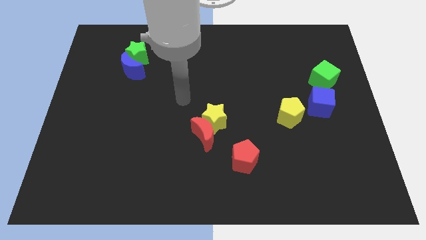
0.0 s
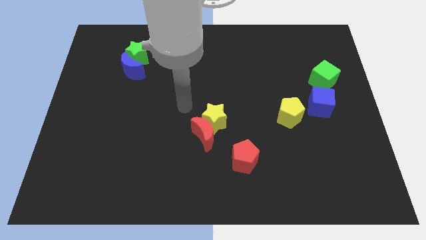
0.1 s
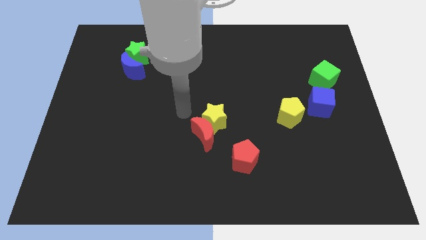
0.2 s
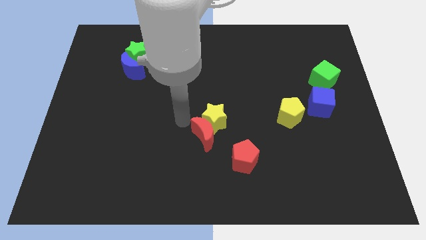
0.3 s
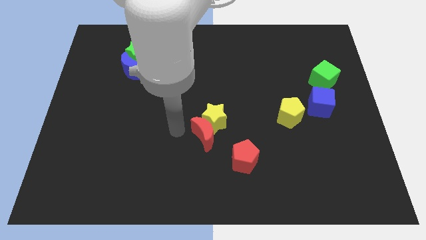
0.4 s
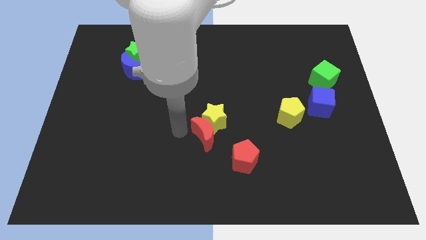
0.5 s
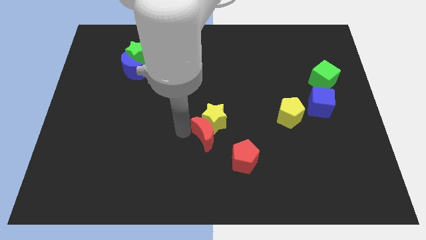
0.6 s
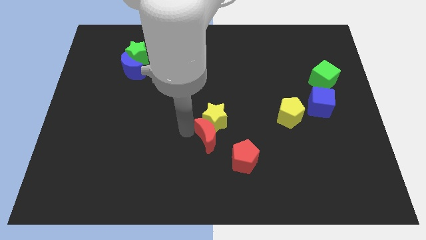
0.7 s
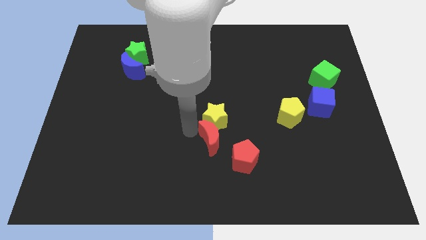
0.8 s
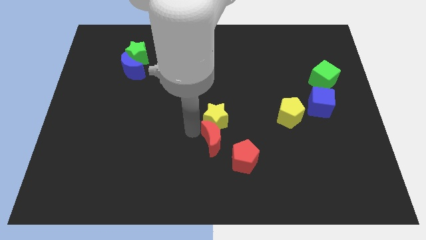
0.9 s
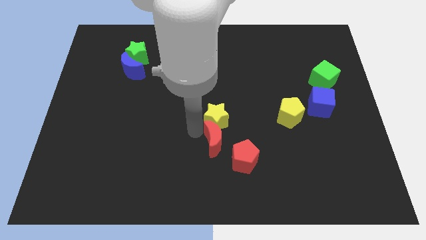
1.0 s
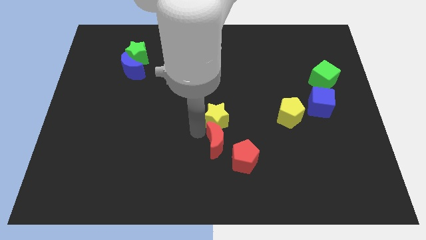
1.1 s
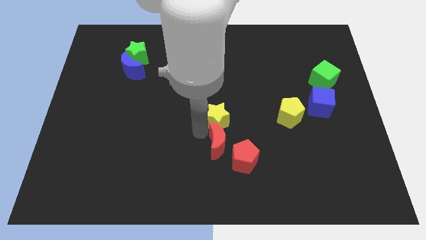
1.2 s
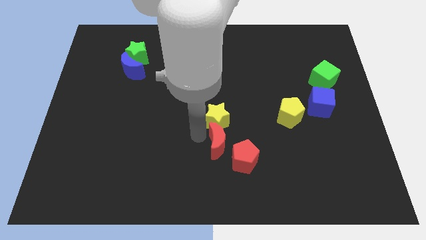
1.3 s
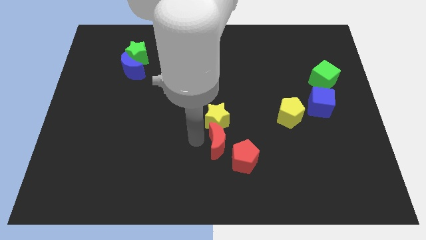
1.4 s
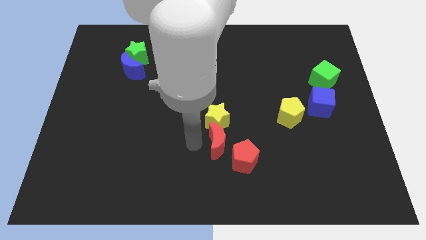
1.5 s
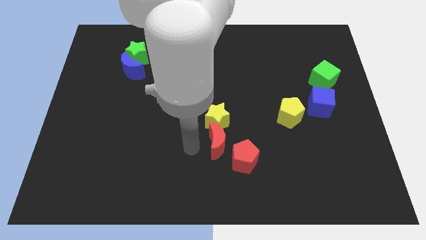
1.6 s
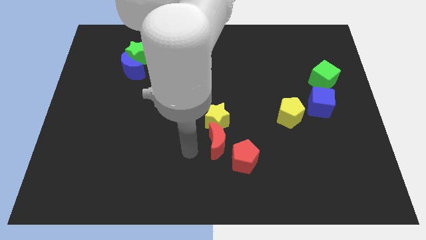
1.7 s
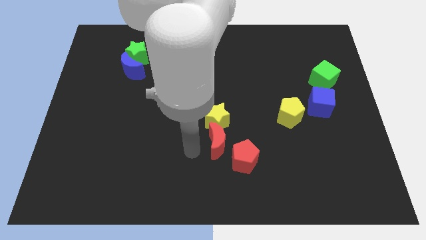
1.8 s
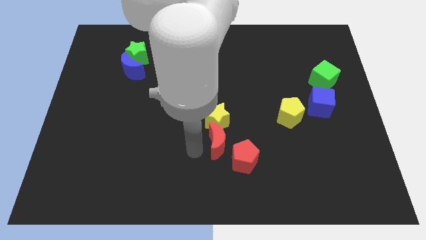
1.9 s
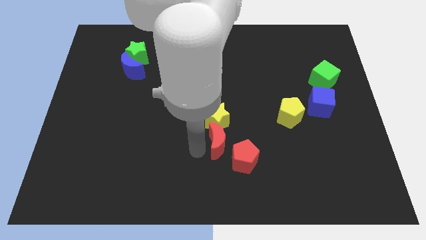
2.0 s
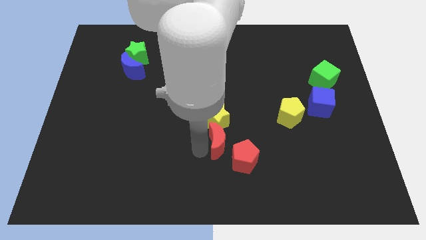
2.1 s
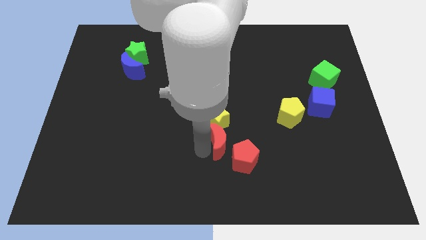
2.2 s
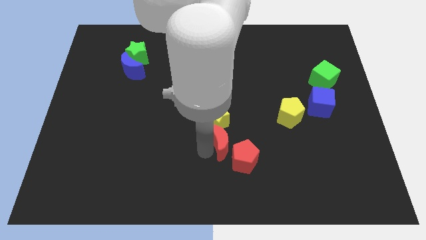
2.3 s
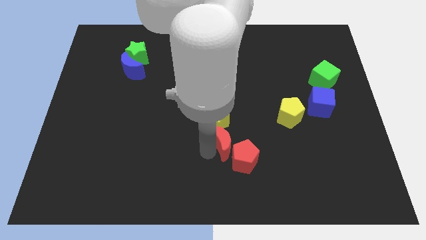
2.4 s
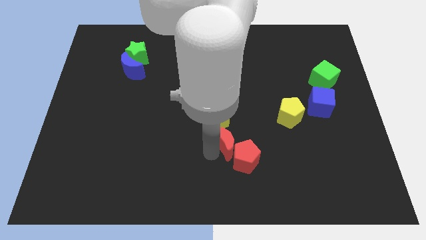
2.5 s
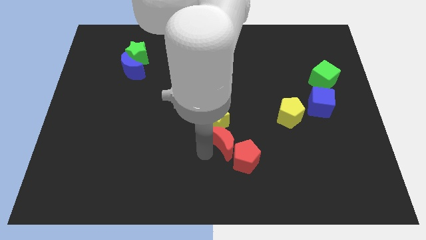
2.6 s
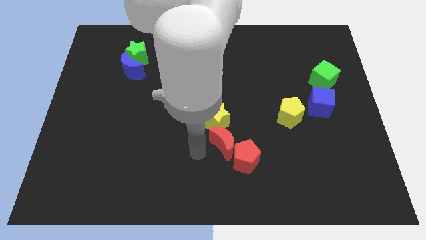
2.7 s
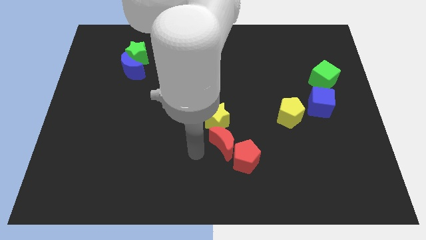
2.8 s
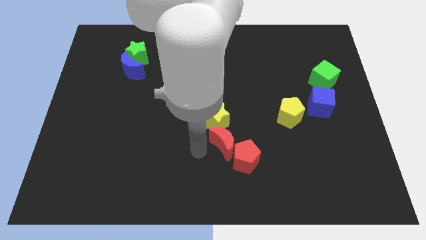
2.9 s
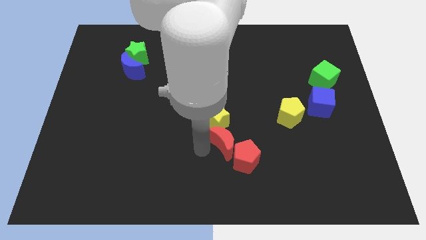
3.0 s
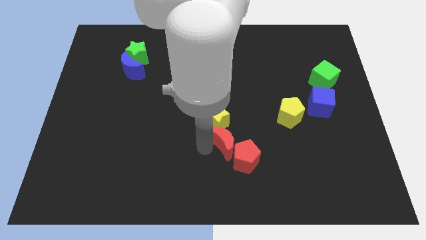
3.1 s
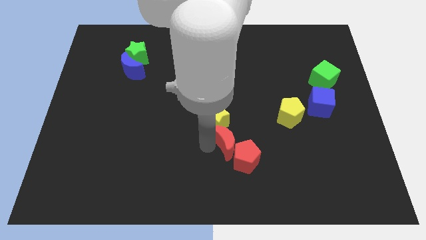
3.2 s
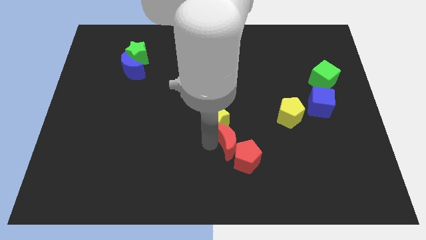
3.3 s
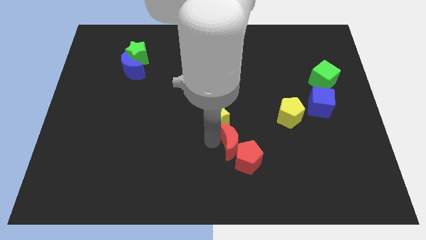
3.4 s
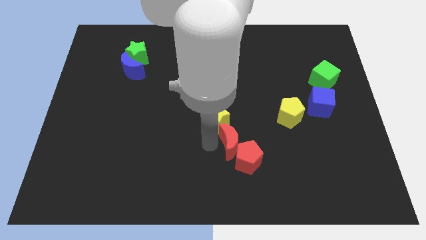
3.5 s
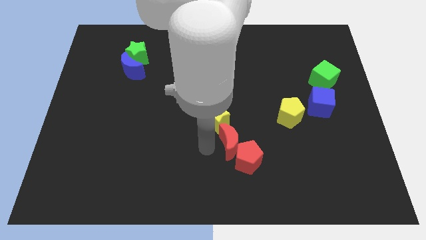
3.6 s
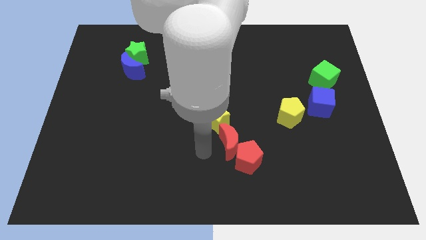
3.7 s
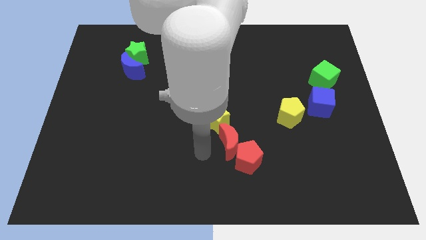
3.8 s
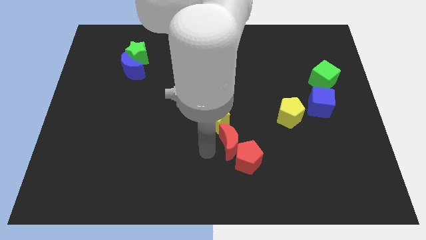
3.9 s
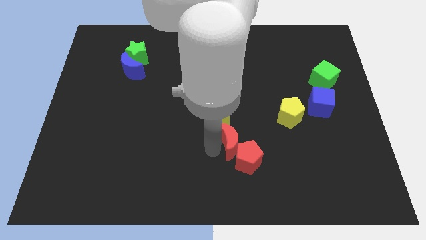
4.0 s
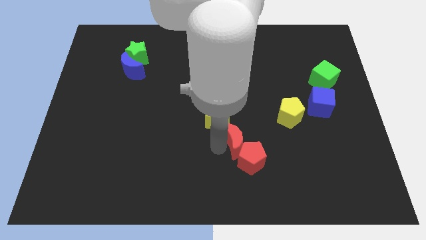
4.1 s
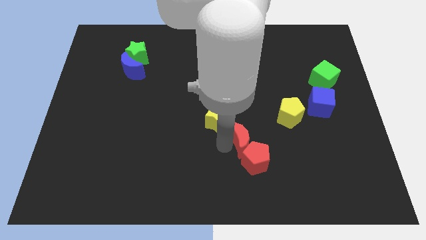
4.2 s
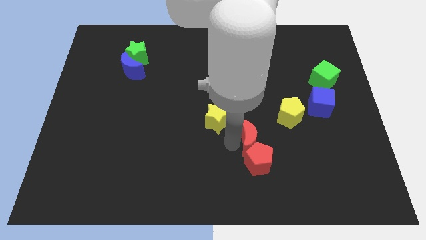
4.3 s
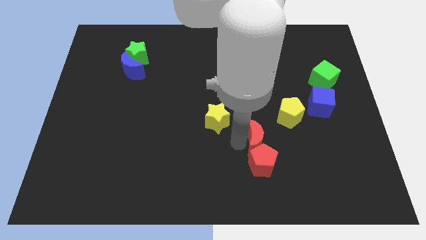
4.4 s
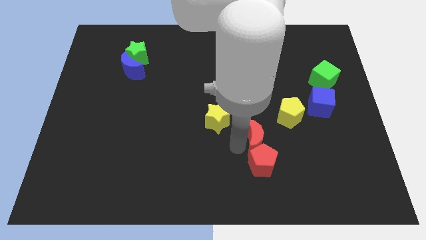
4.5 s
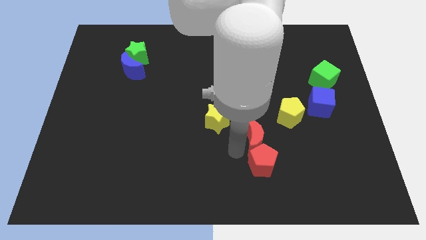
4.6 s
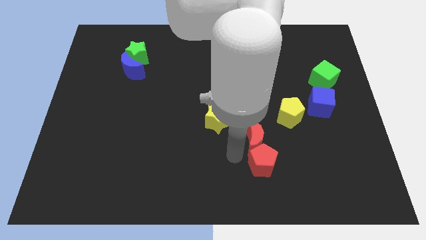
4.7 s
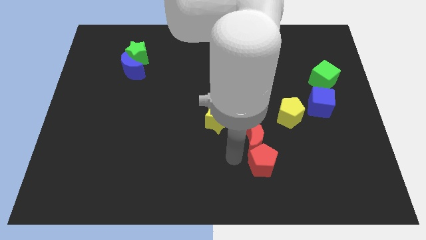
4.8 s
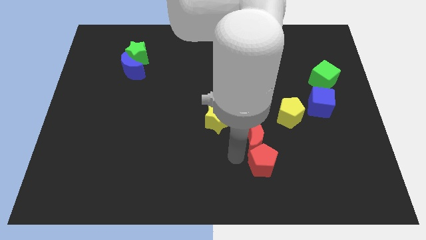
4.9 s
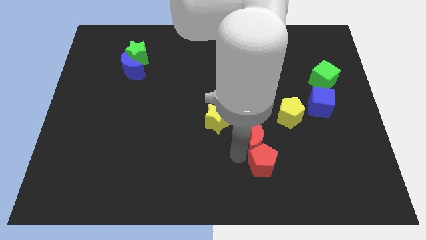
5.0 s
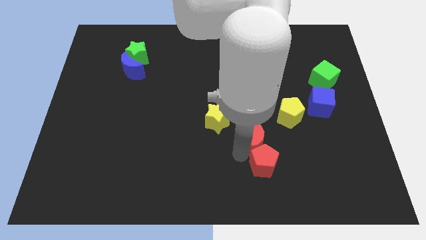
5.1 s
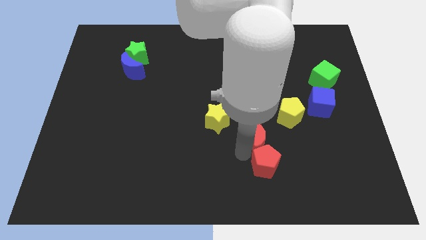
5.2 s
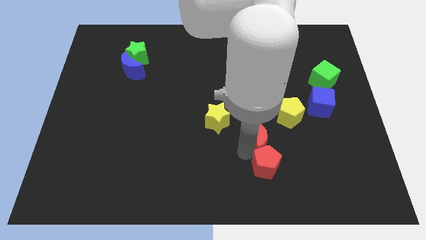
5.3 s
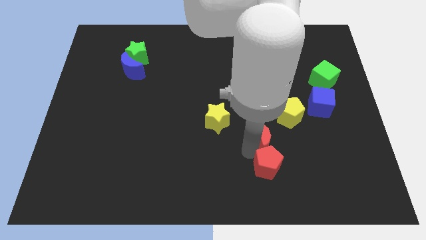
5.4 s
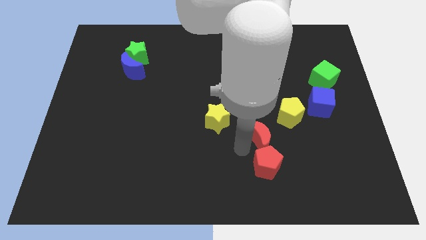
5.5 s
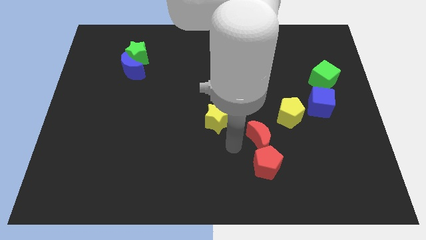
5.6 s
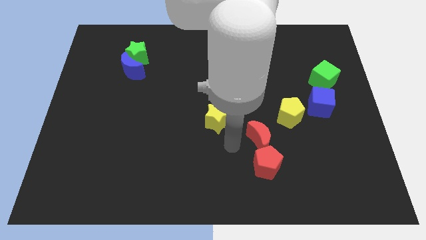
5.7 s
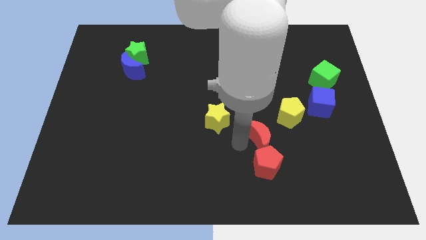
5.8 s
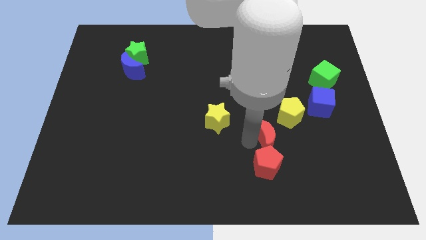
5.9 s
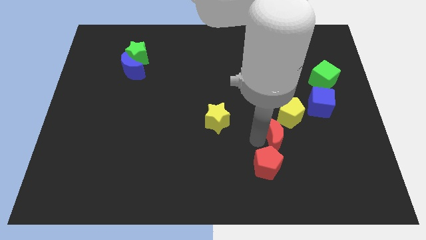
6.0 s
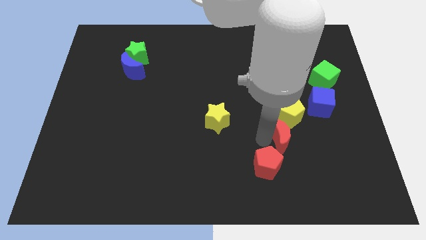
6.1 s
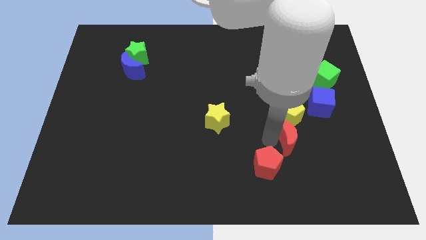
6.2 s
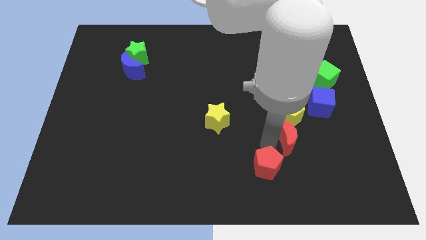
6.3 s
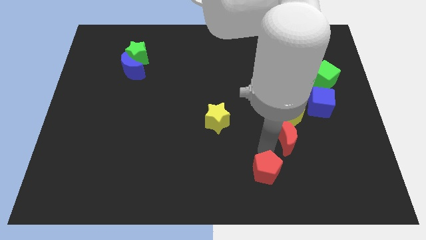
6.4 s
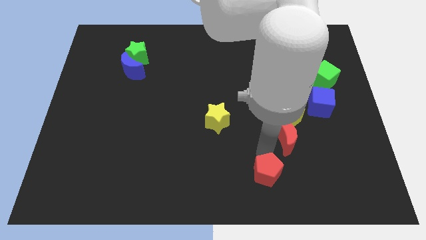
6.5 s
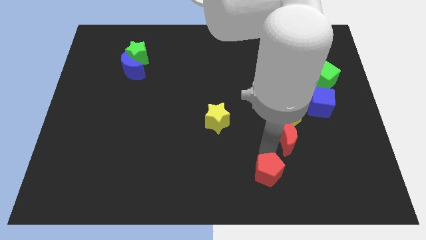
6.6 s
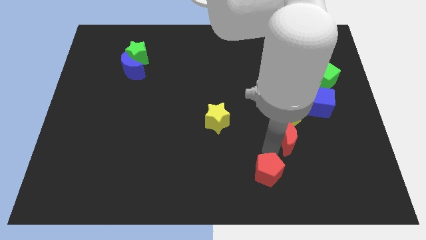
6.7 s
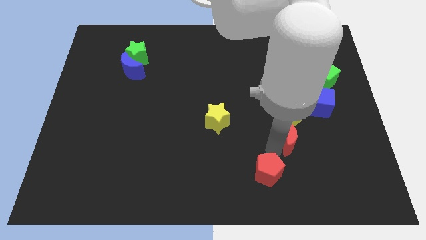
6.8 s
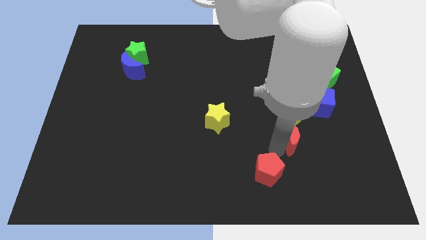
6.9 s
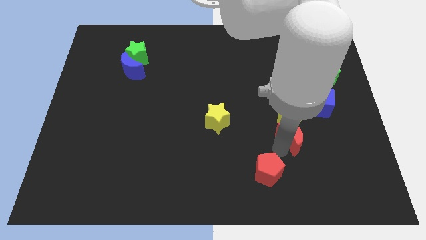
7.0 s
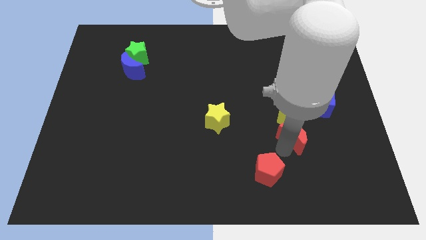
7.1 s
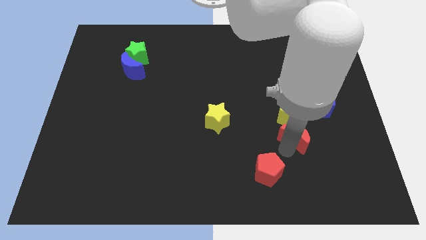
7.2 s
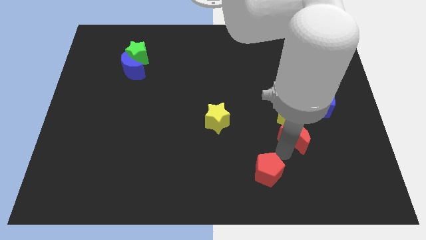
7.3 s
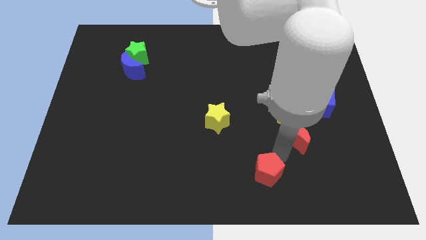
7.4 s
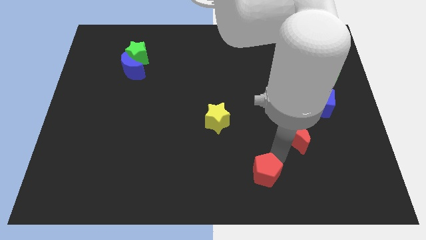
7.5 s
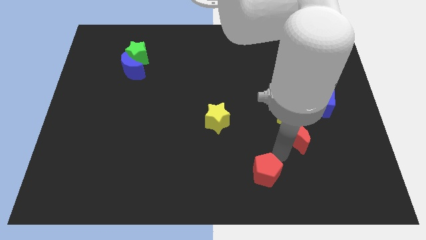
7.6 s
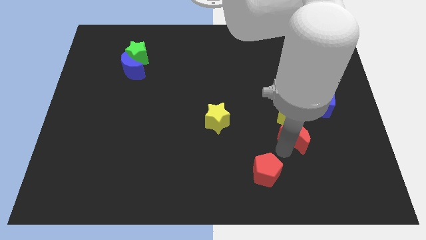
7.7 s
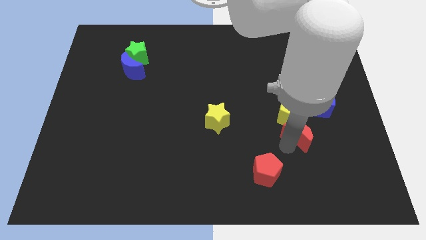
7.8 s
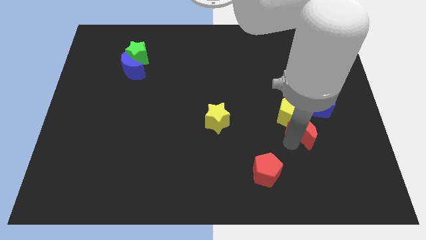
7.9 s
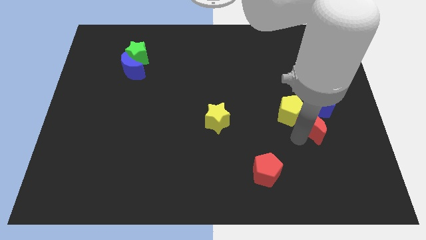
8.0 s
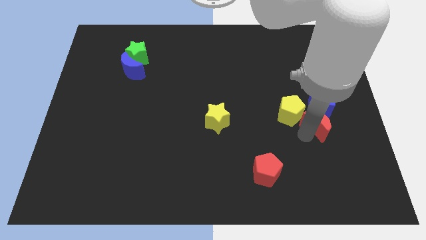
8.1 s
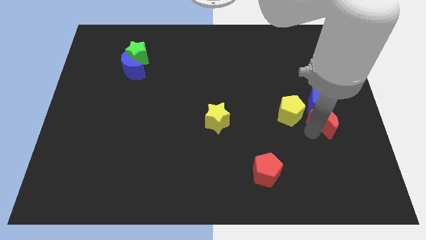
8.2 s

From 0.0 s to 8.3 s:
push the red moon towards the blue cube
